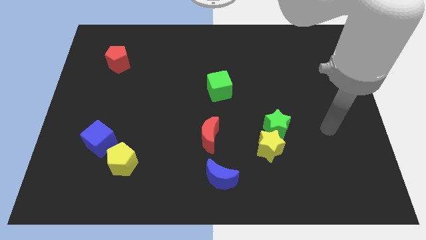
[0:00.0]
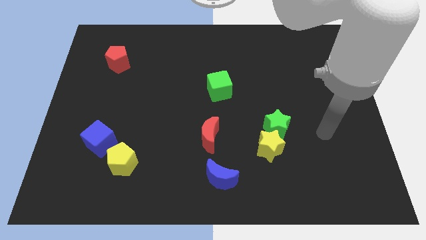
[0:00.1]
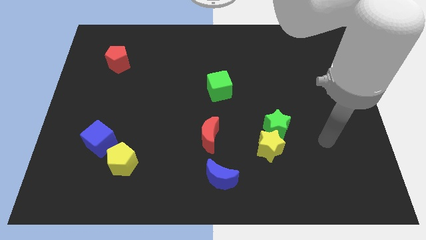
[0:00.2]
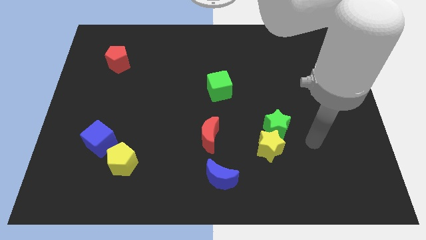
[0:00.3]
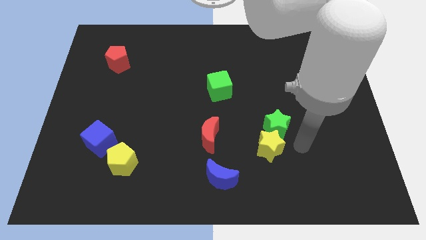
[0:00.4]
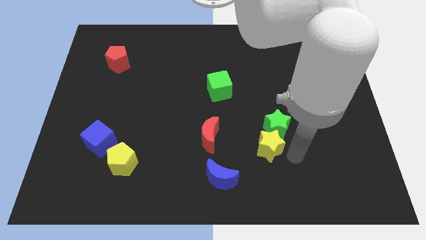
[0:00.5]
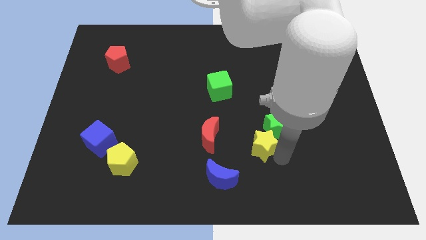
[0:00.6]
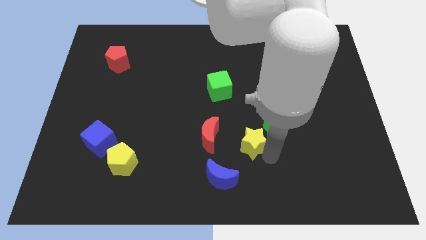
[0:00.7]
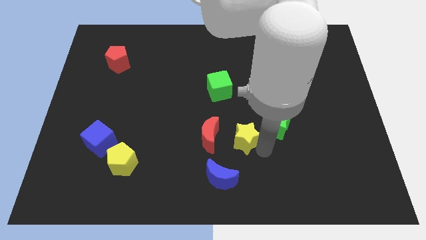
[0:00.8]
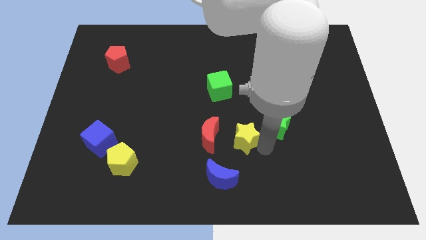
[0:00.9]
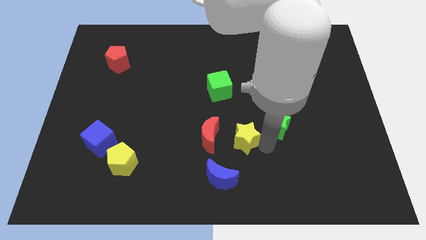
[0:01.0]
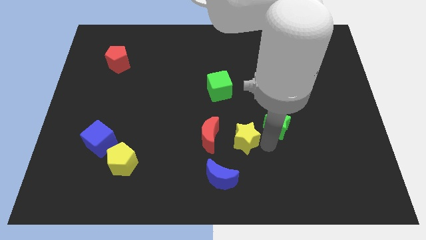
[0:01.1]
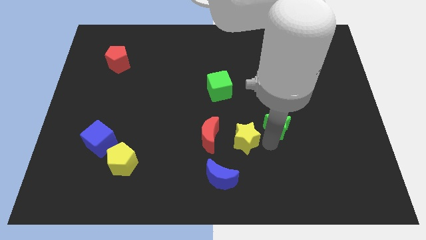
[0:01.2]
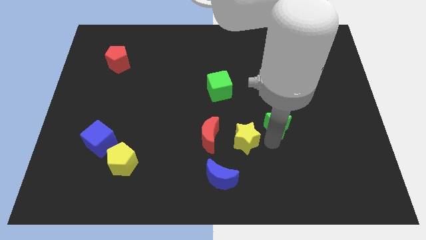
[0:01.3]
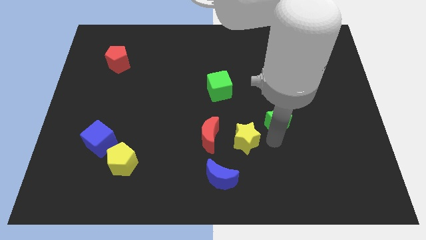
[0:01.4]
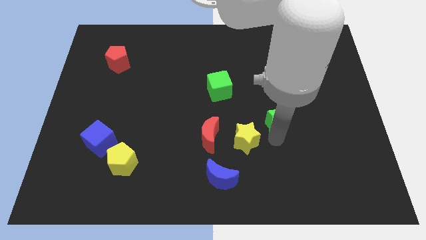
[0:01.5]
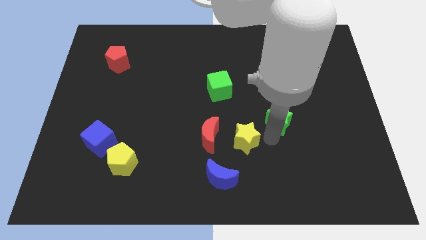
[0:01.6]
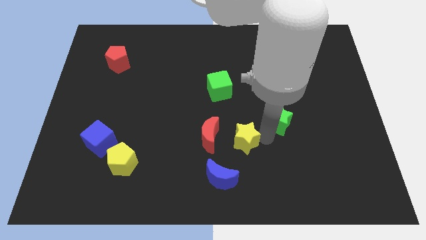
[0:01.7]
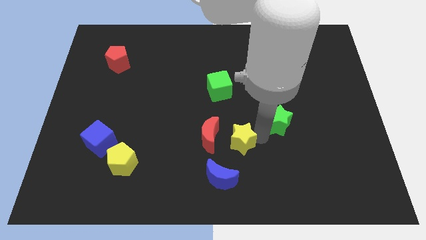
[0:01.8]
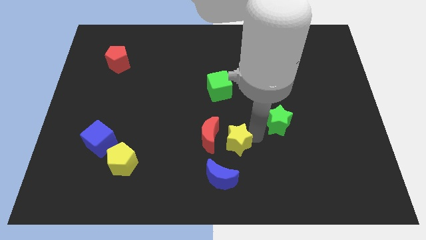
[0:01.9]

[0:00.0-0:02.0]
pull the green star apart from the yellow star

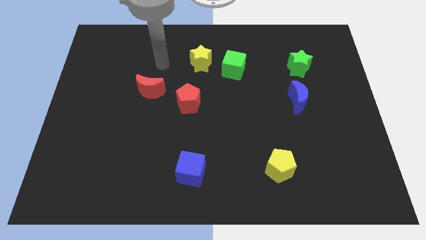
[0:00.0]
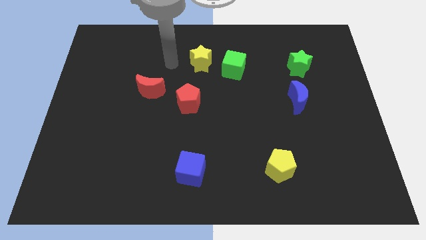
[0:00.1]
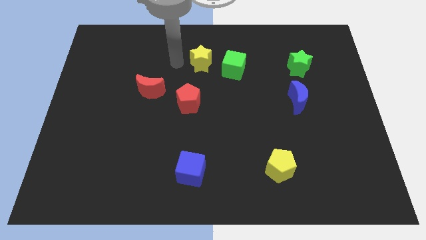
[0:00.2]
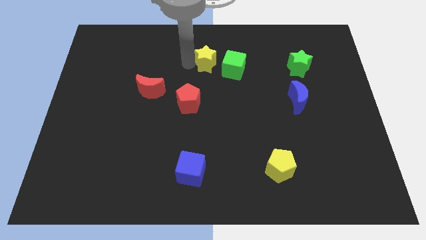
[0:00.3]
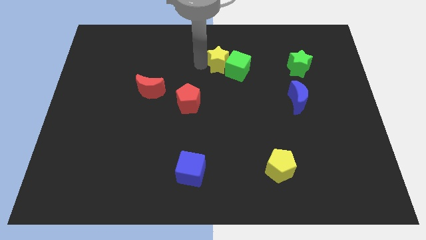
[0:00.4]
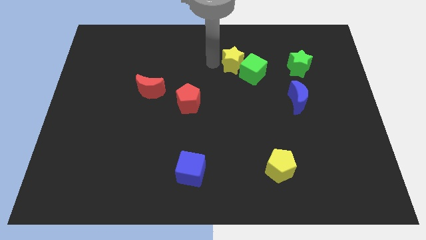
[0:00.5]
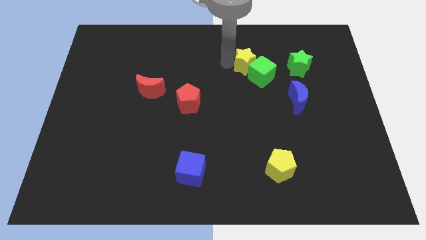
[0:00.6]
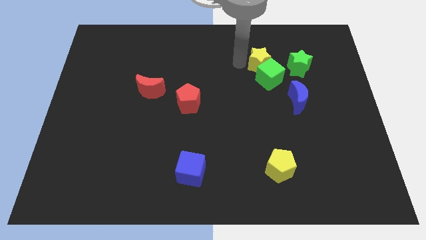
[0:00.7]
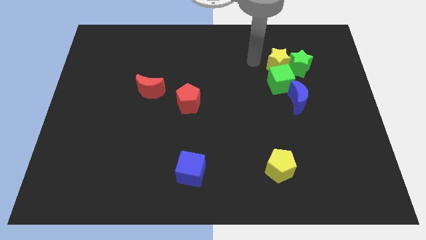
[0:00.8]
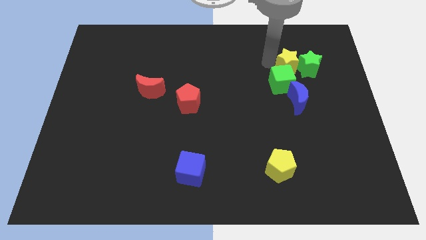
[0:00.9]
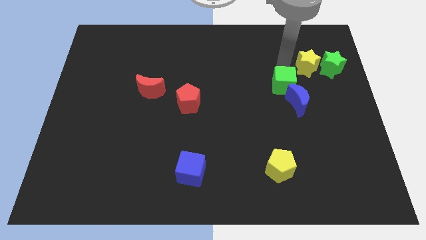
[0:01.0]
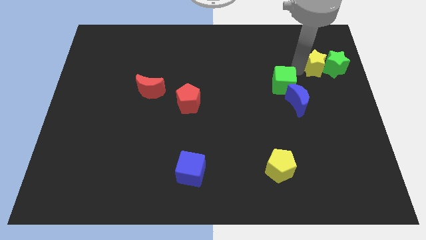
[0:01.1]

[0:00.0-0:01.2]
move the green cube away from the yellow star

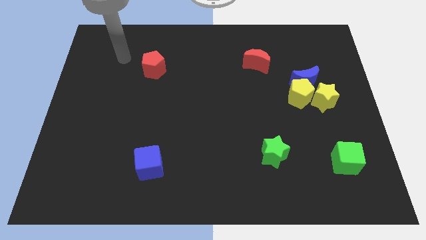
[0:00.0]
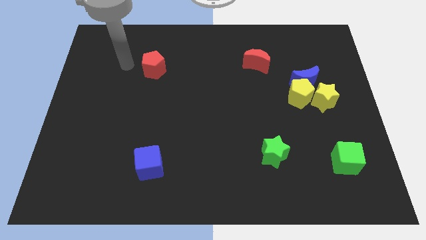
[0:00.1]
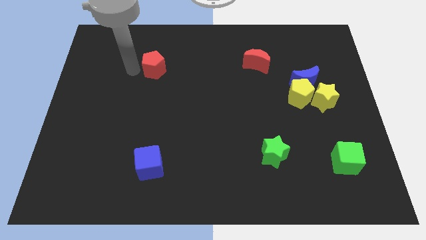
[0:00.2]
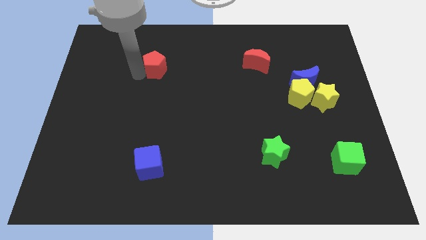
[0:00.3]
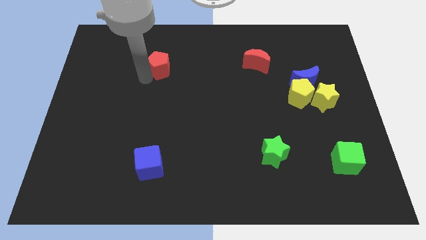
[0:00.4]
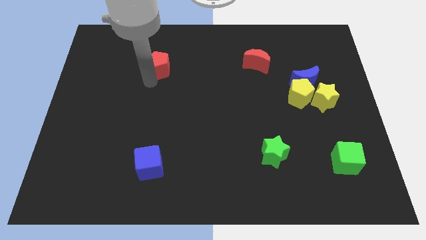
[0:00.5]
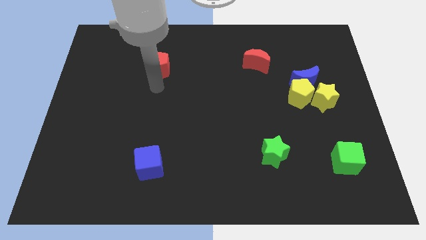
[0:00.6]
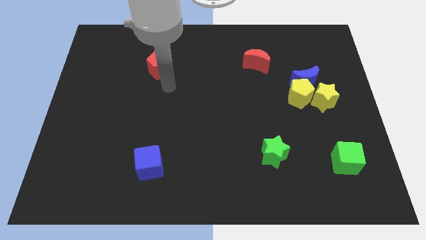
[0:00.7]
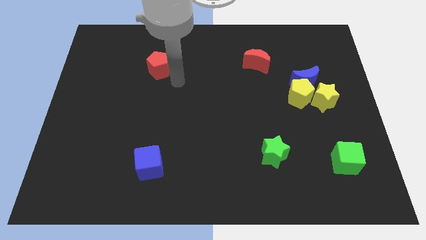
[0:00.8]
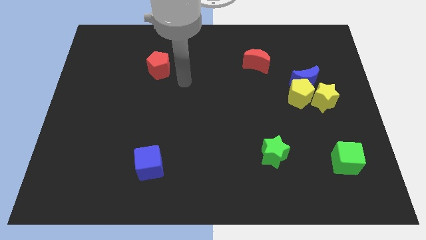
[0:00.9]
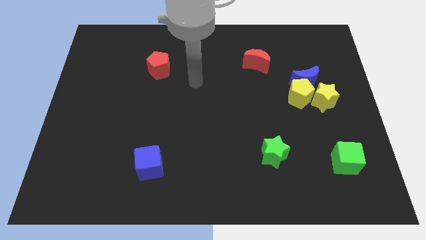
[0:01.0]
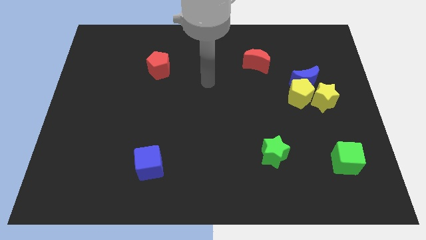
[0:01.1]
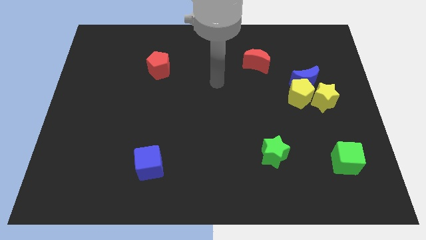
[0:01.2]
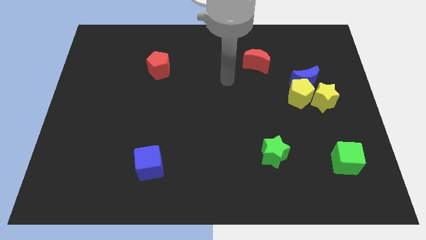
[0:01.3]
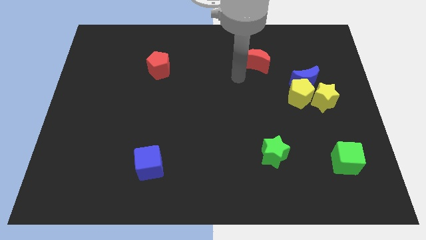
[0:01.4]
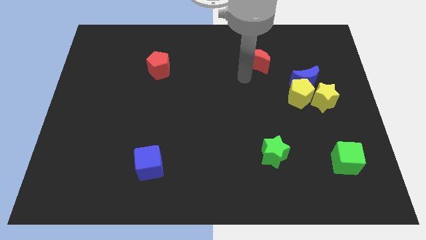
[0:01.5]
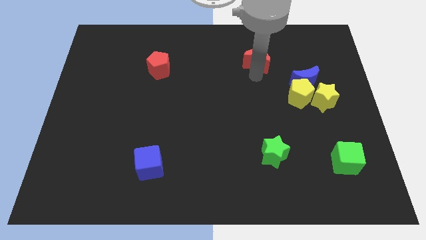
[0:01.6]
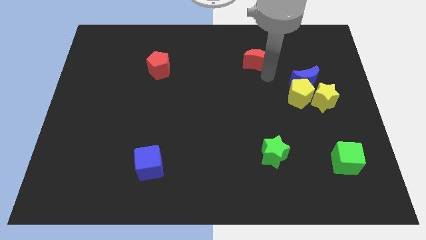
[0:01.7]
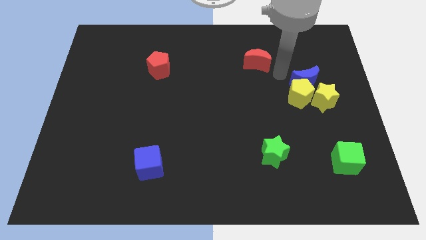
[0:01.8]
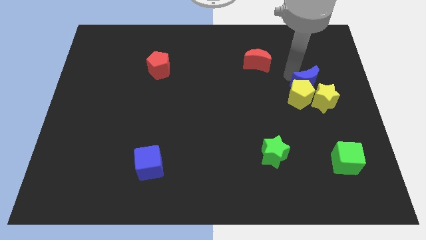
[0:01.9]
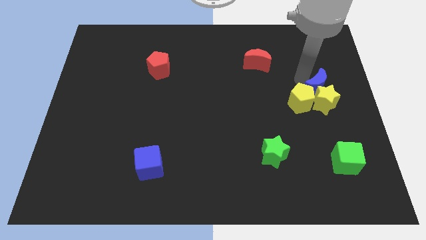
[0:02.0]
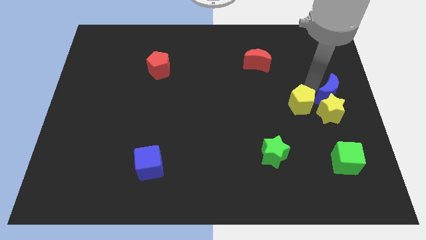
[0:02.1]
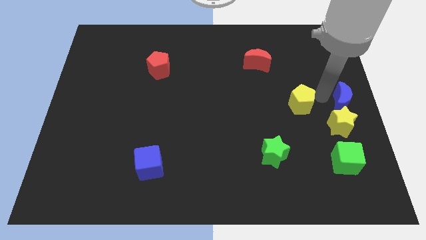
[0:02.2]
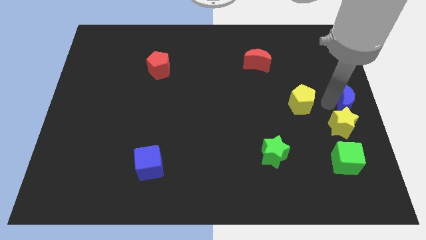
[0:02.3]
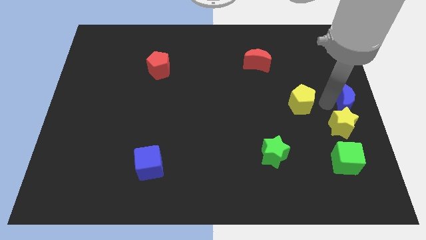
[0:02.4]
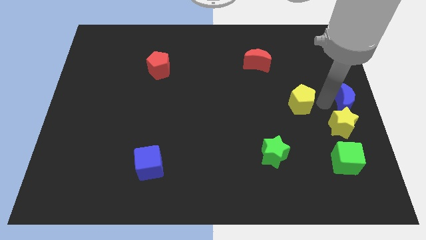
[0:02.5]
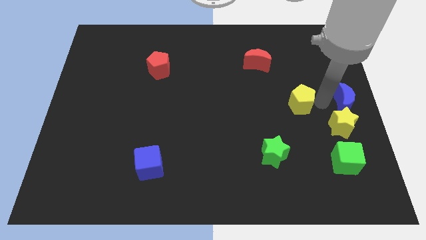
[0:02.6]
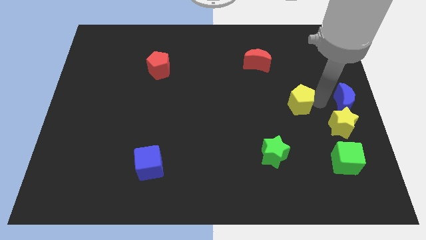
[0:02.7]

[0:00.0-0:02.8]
move the yellow pentagon away from the blue moon and yellow star

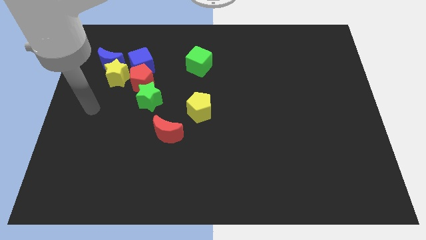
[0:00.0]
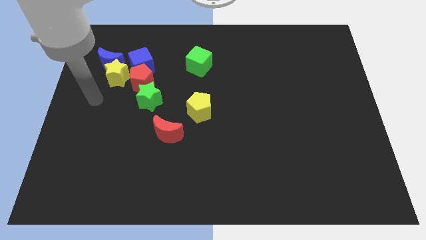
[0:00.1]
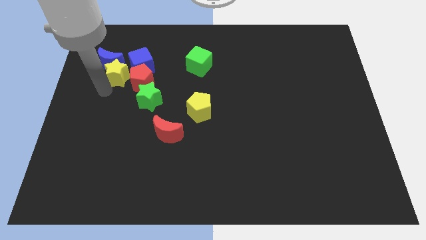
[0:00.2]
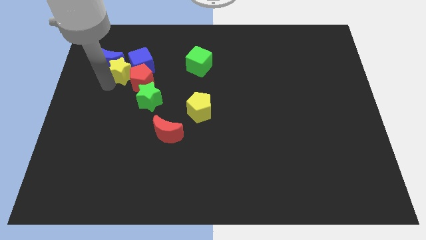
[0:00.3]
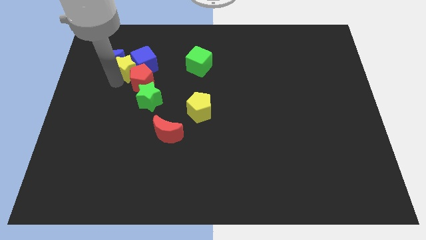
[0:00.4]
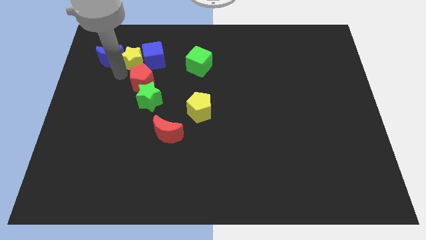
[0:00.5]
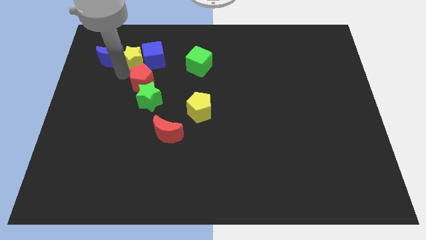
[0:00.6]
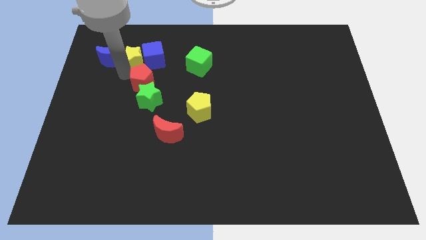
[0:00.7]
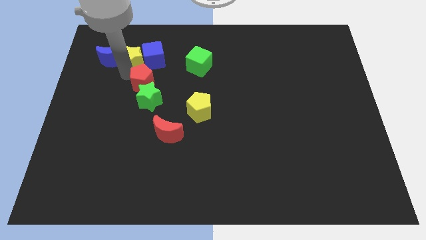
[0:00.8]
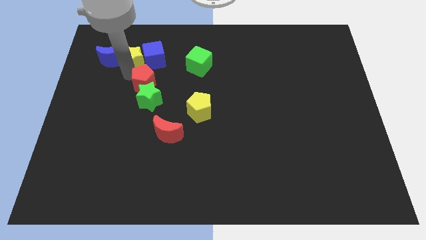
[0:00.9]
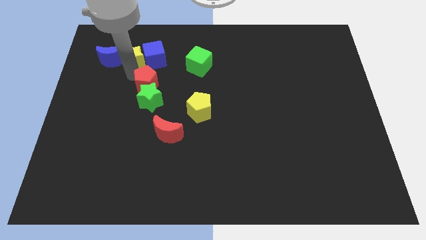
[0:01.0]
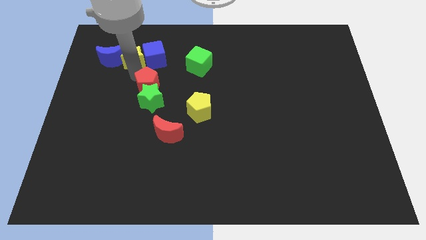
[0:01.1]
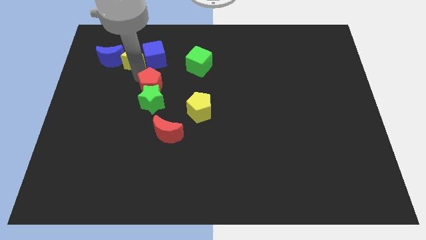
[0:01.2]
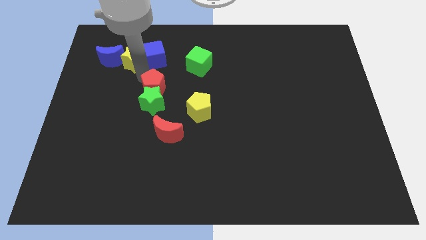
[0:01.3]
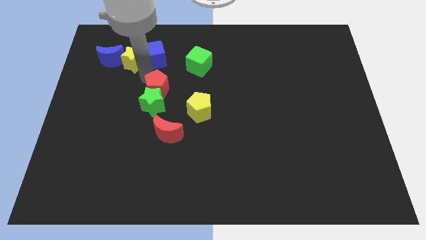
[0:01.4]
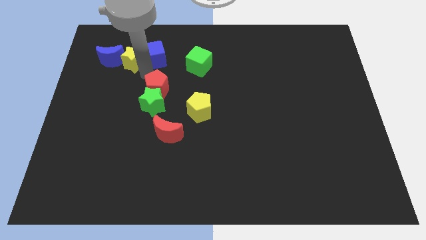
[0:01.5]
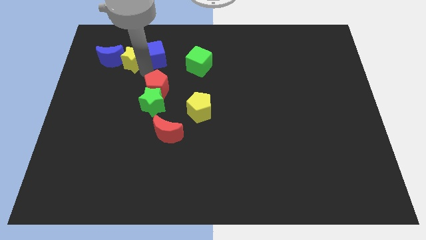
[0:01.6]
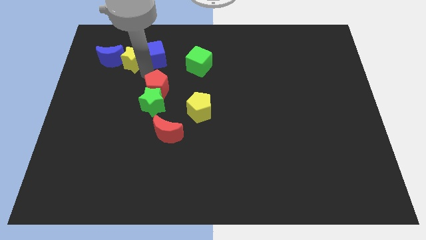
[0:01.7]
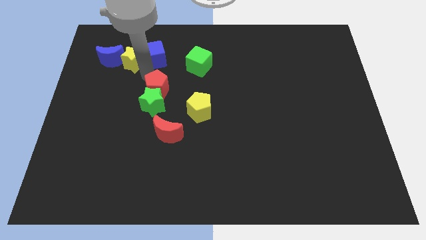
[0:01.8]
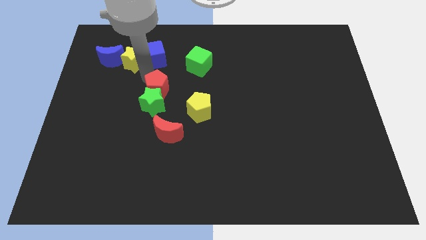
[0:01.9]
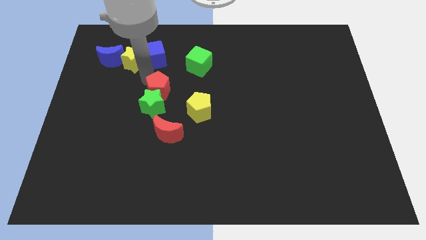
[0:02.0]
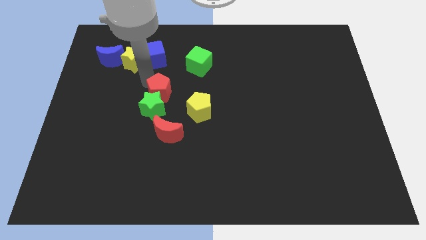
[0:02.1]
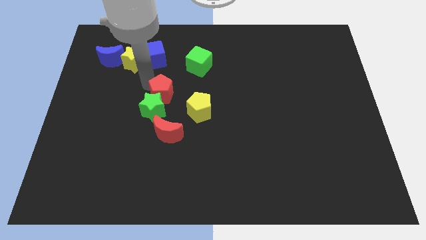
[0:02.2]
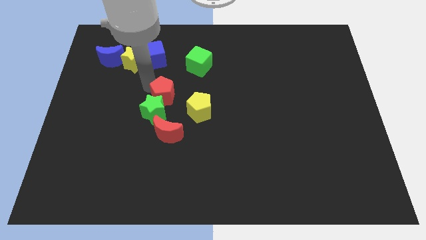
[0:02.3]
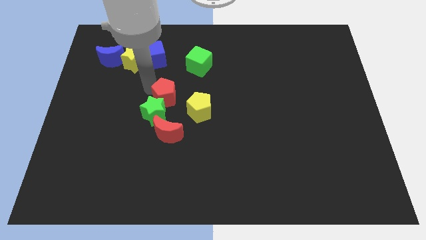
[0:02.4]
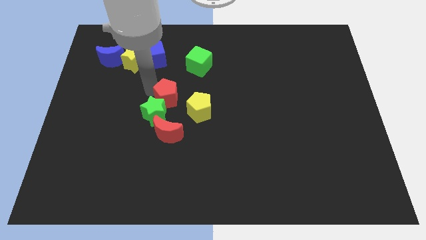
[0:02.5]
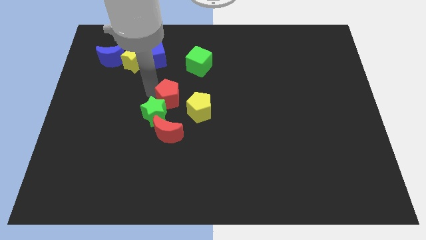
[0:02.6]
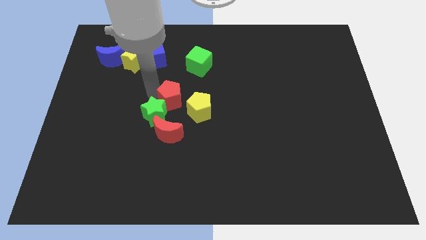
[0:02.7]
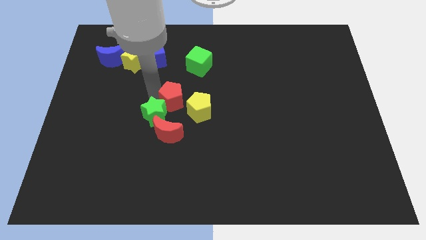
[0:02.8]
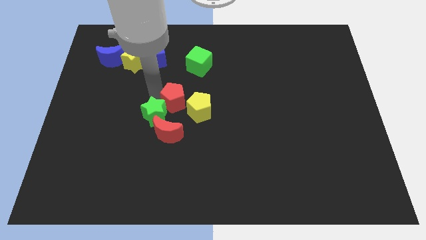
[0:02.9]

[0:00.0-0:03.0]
separate the red pentagon from the group of blocks

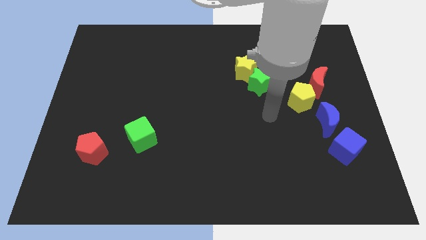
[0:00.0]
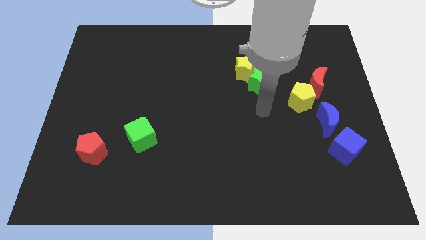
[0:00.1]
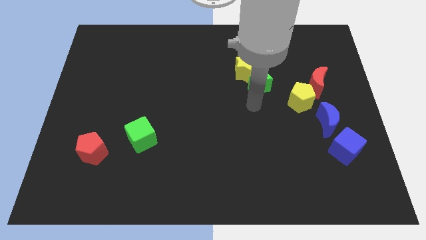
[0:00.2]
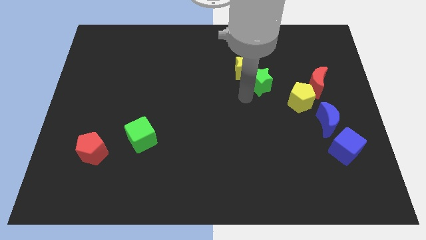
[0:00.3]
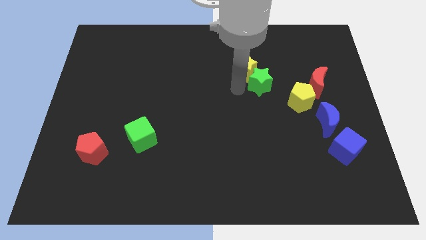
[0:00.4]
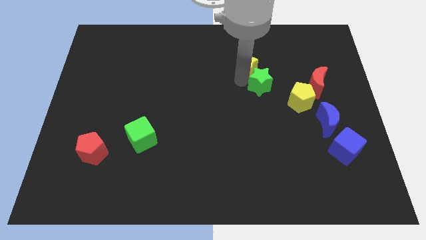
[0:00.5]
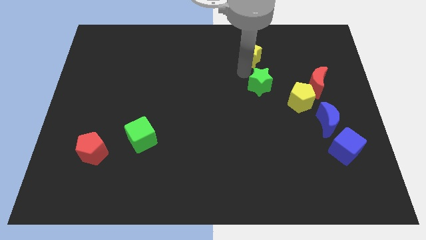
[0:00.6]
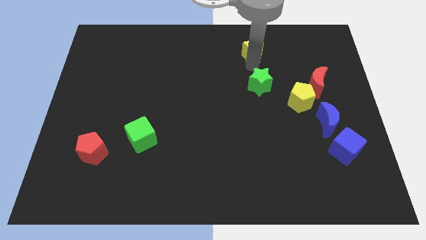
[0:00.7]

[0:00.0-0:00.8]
separate the green star from the yellow star
